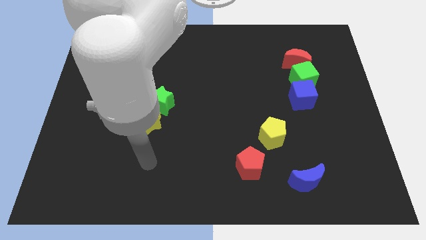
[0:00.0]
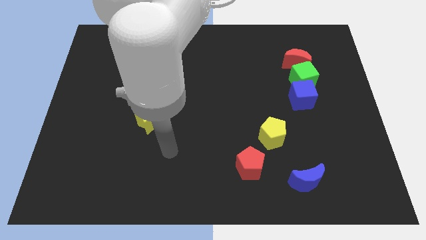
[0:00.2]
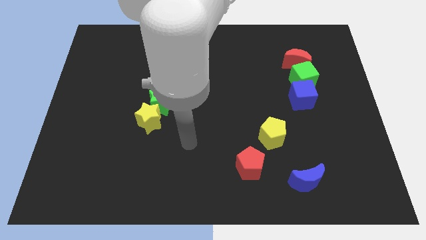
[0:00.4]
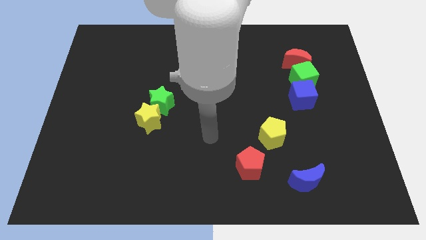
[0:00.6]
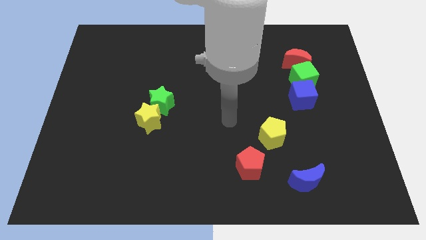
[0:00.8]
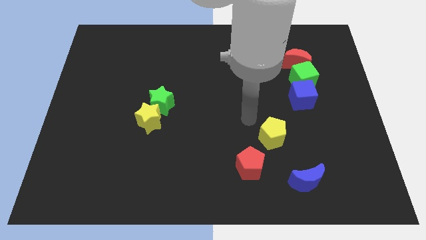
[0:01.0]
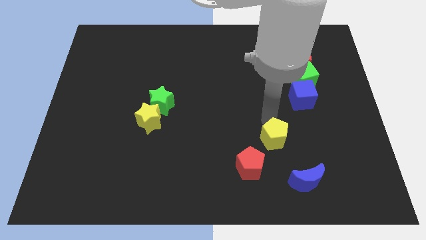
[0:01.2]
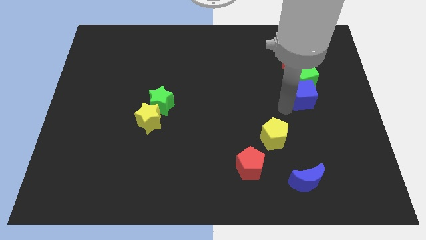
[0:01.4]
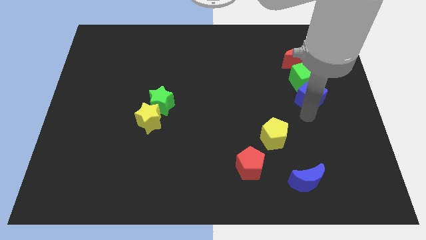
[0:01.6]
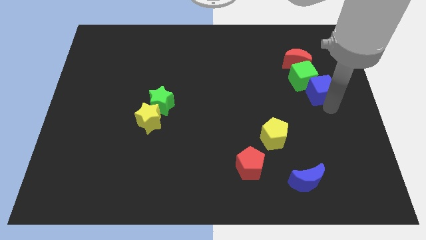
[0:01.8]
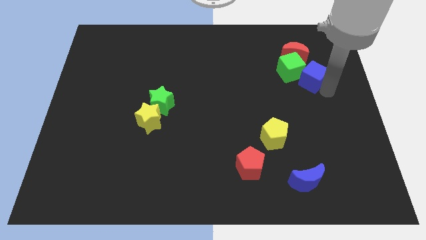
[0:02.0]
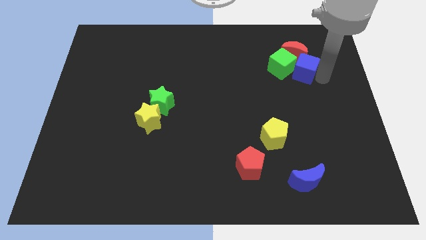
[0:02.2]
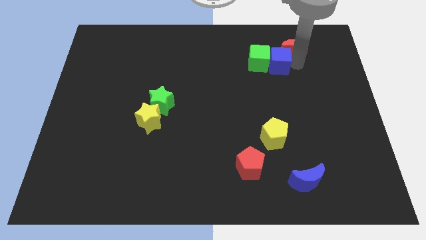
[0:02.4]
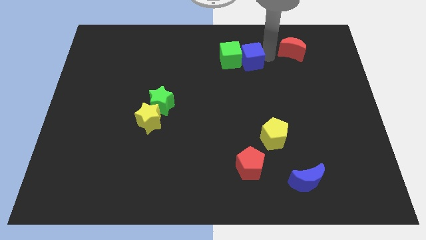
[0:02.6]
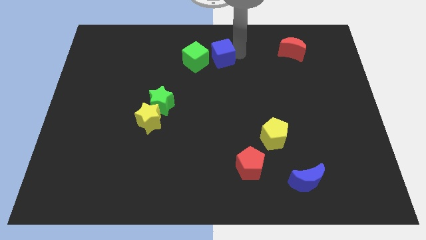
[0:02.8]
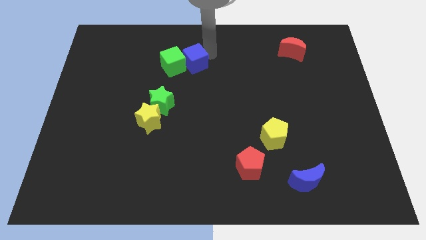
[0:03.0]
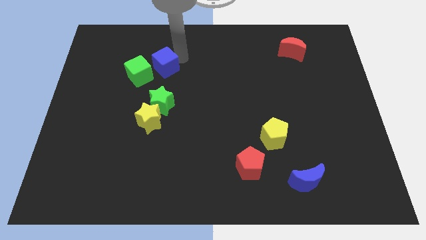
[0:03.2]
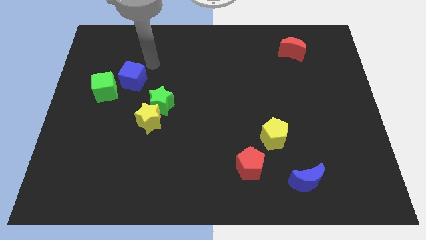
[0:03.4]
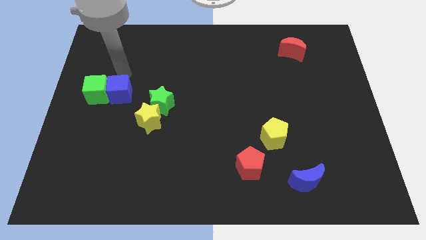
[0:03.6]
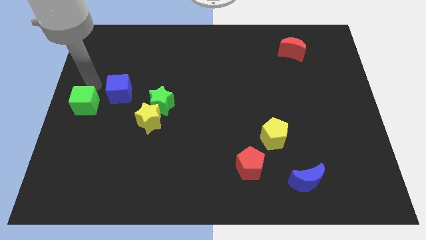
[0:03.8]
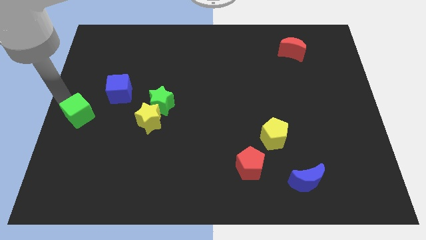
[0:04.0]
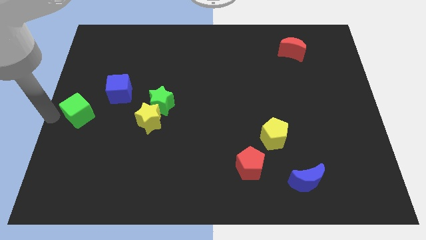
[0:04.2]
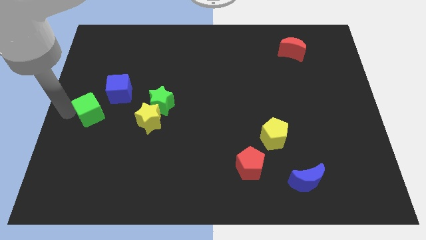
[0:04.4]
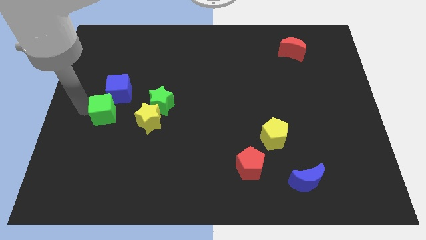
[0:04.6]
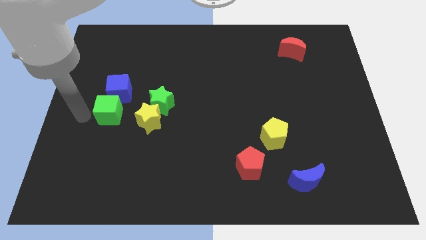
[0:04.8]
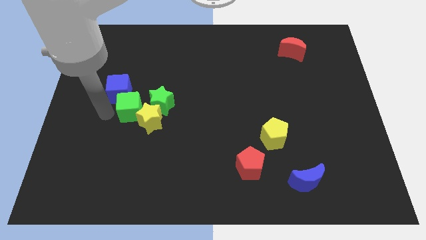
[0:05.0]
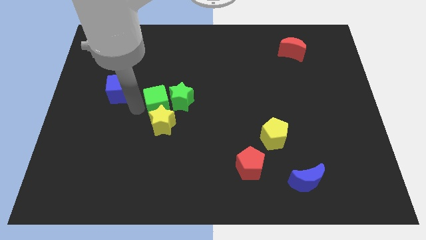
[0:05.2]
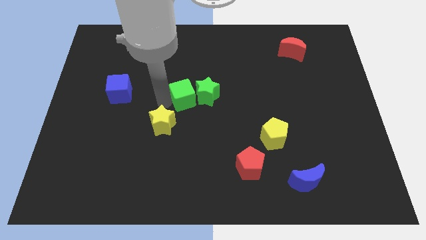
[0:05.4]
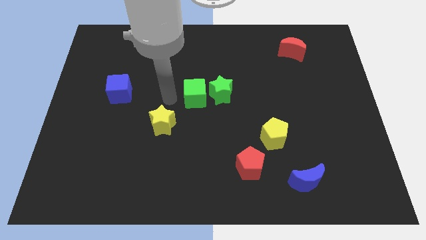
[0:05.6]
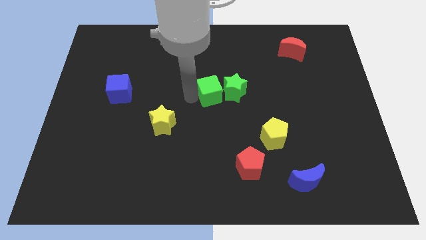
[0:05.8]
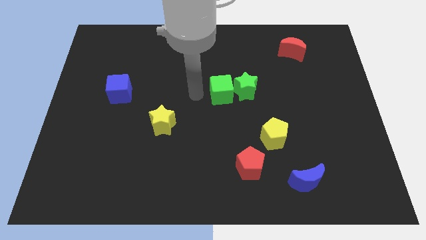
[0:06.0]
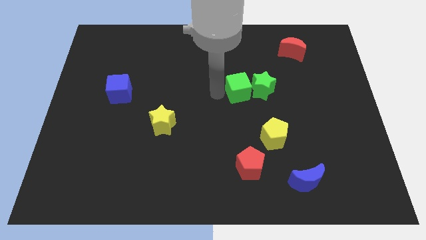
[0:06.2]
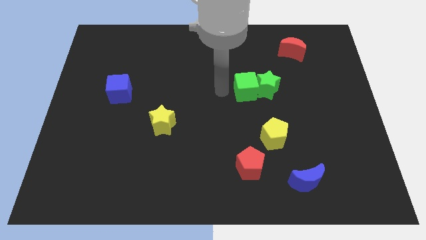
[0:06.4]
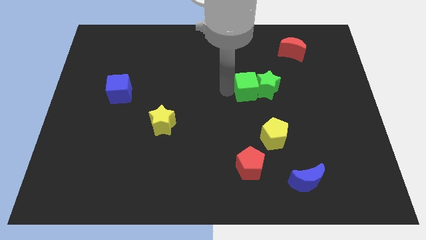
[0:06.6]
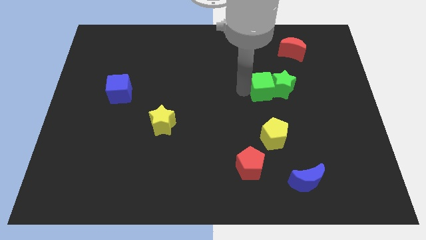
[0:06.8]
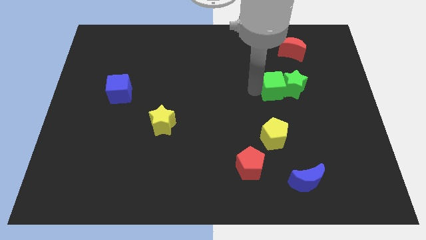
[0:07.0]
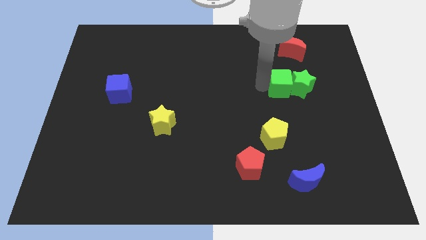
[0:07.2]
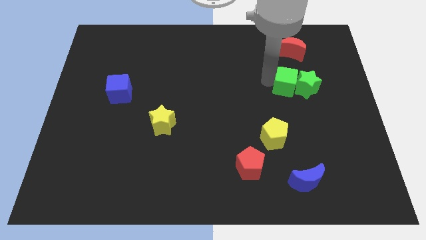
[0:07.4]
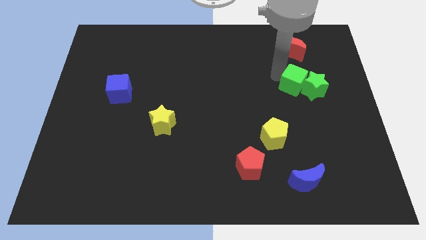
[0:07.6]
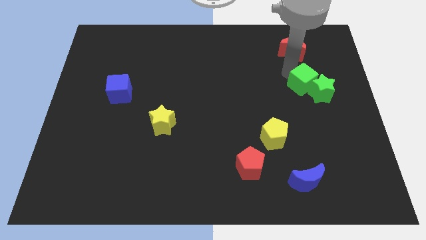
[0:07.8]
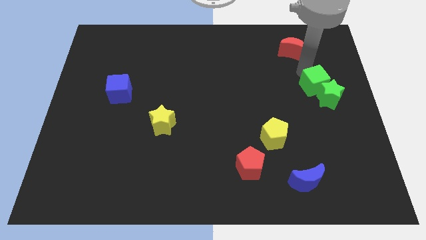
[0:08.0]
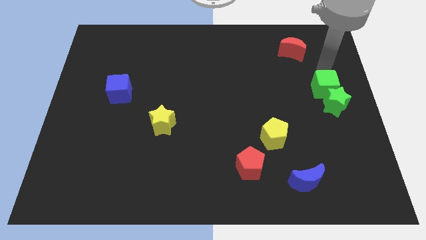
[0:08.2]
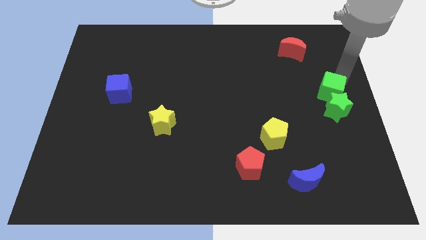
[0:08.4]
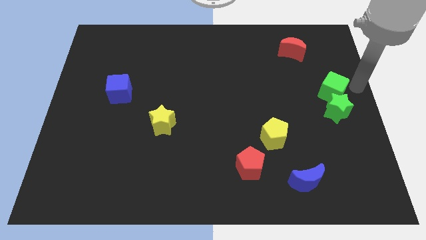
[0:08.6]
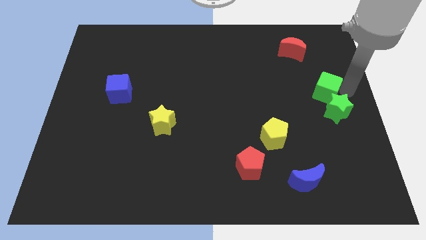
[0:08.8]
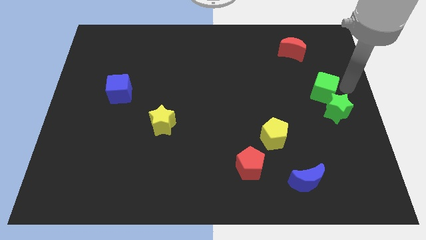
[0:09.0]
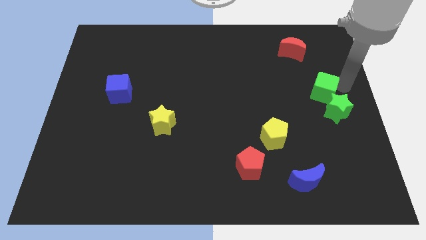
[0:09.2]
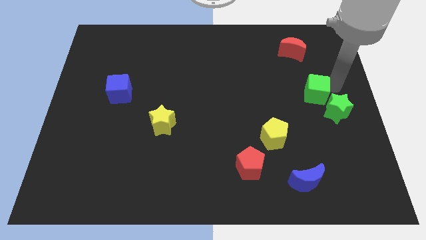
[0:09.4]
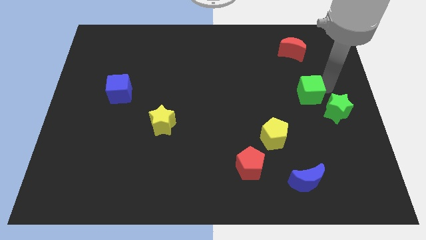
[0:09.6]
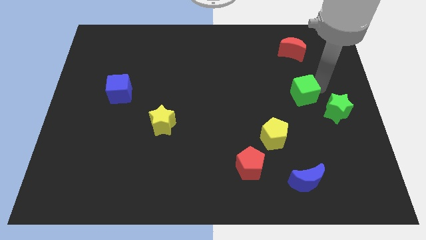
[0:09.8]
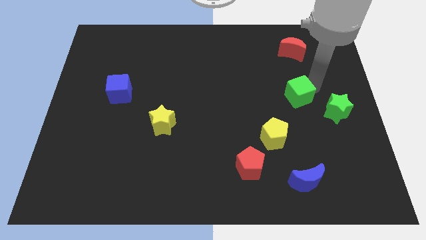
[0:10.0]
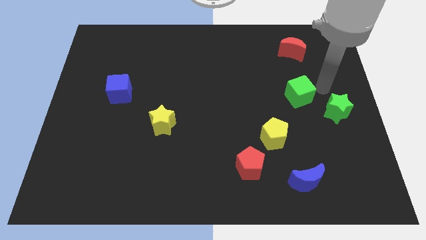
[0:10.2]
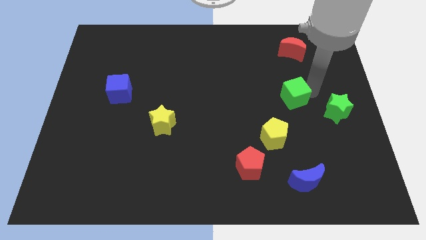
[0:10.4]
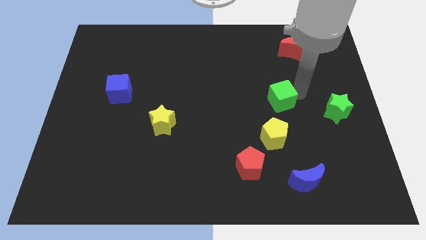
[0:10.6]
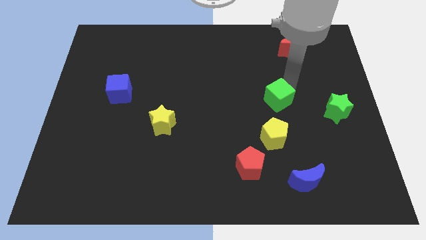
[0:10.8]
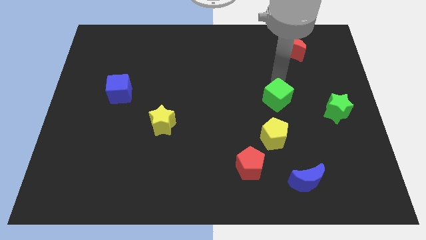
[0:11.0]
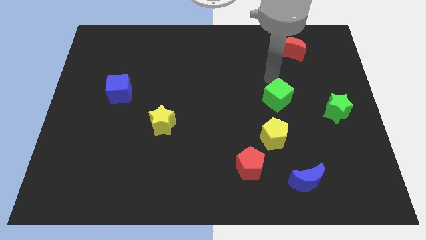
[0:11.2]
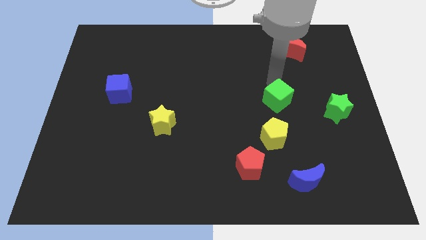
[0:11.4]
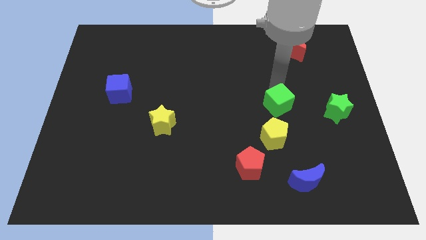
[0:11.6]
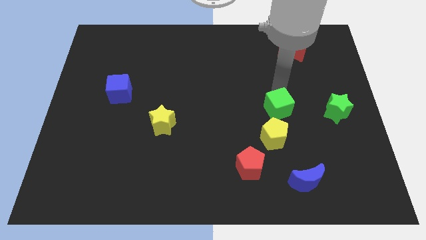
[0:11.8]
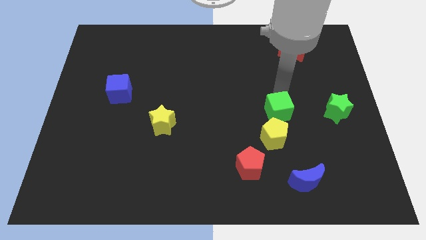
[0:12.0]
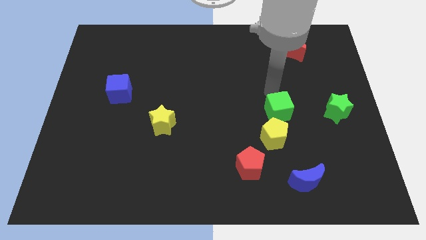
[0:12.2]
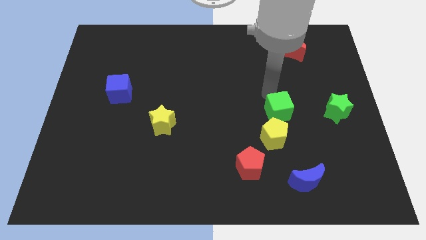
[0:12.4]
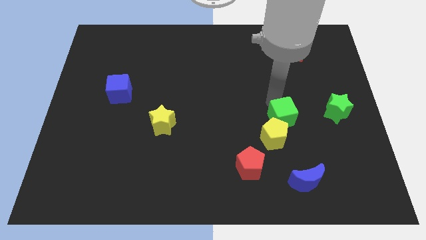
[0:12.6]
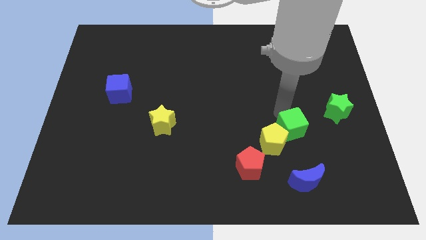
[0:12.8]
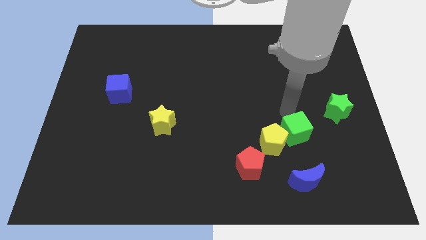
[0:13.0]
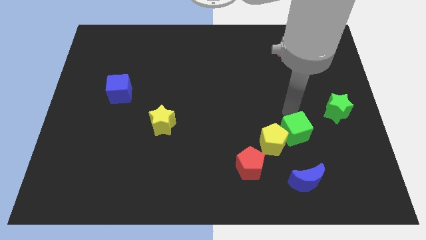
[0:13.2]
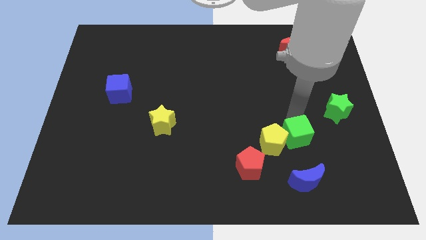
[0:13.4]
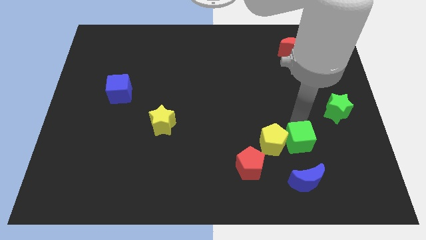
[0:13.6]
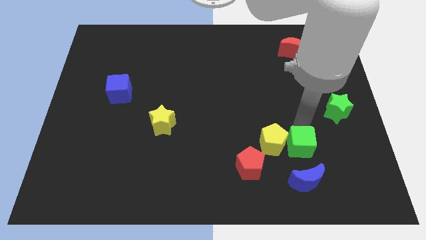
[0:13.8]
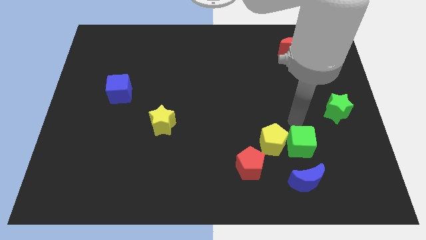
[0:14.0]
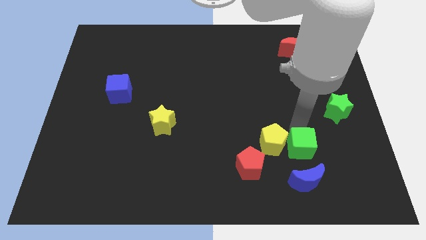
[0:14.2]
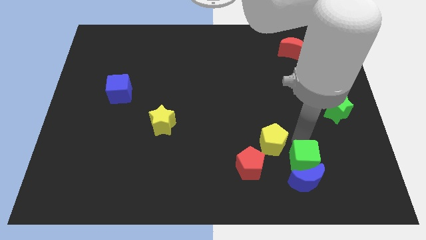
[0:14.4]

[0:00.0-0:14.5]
move the green cube next to the blue moon
